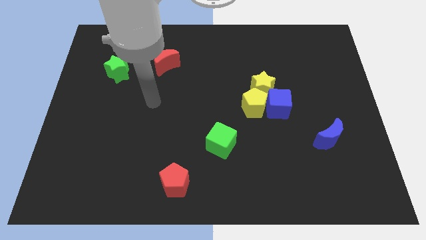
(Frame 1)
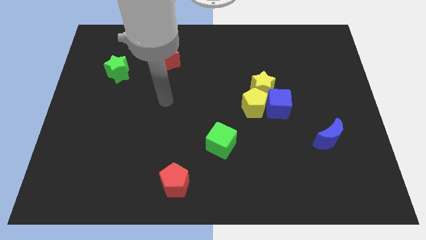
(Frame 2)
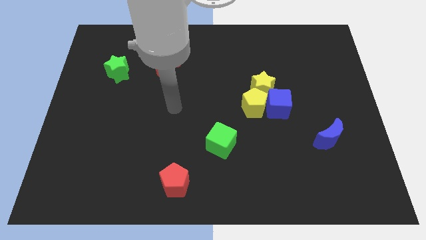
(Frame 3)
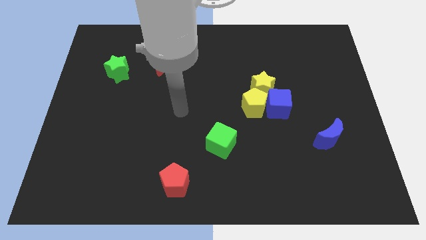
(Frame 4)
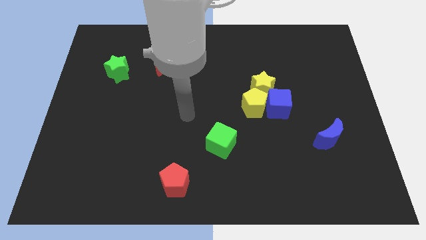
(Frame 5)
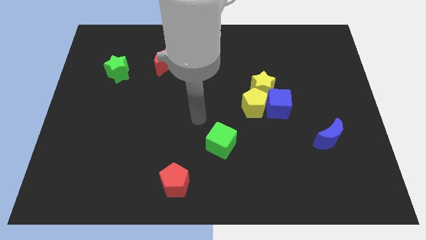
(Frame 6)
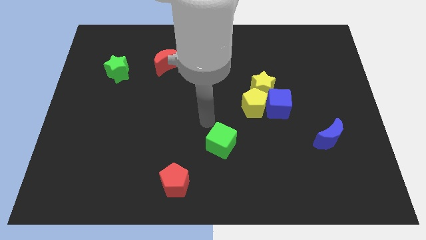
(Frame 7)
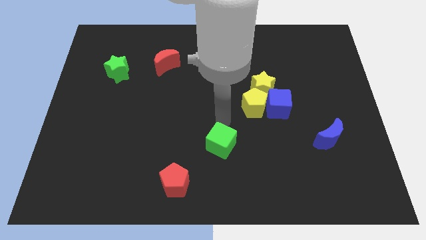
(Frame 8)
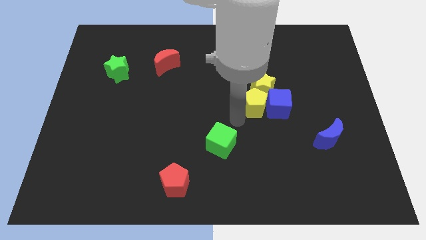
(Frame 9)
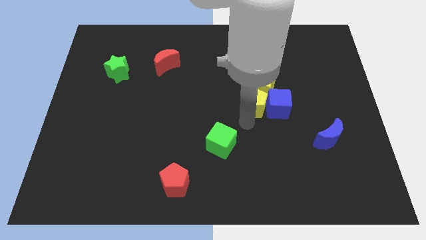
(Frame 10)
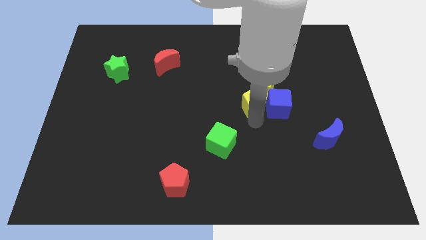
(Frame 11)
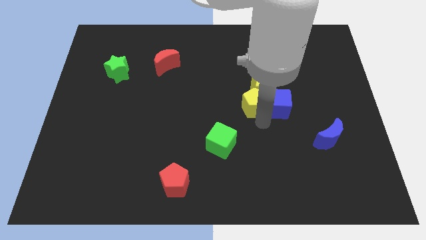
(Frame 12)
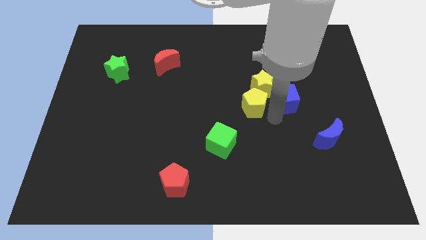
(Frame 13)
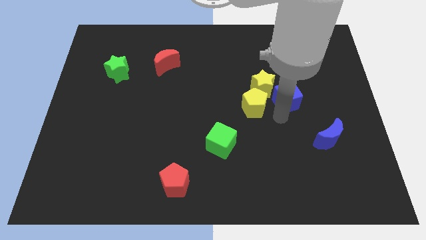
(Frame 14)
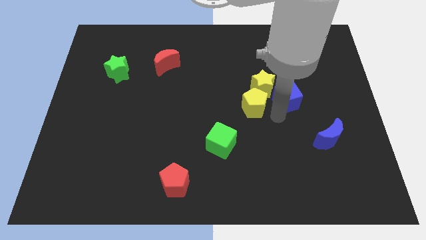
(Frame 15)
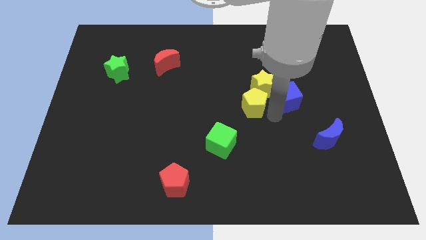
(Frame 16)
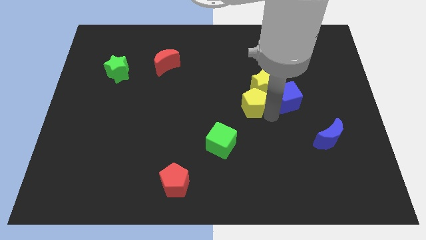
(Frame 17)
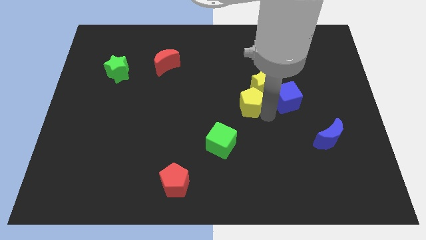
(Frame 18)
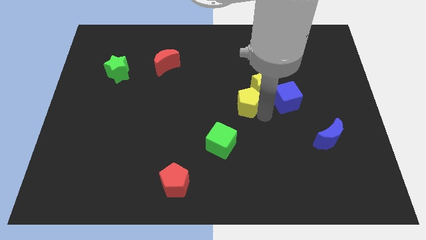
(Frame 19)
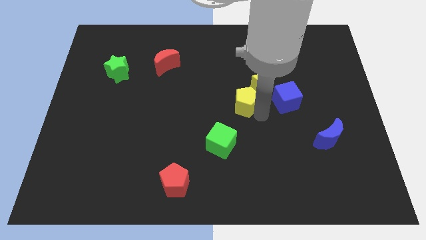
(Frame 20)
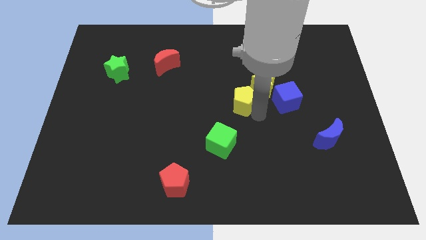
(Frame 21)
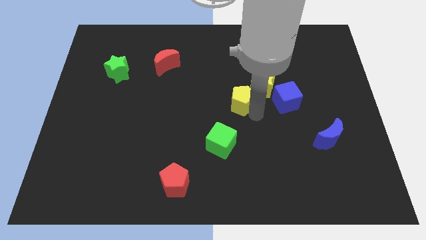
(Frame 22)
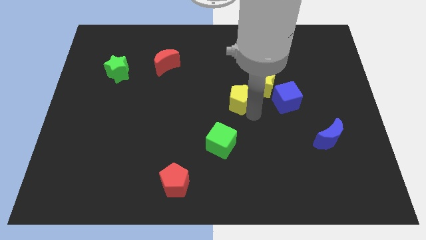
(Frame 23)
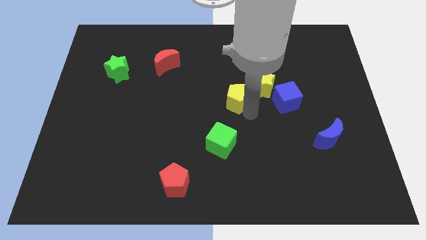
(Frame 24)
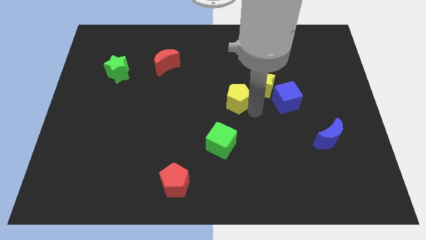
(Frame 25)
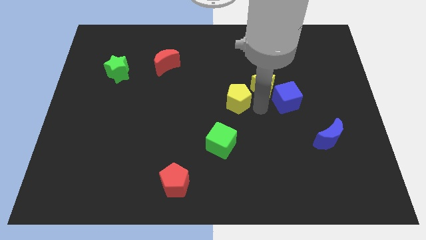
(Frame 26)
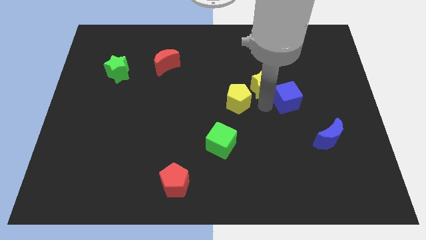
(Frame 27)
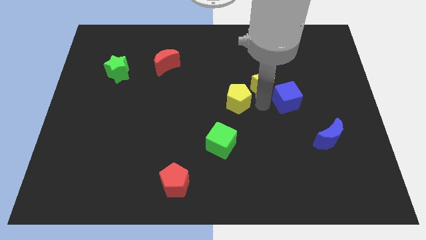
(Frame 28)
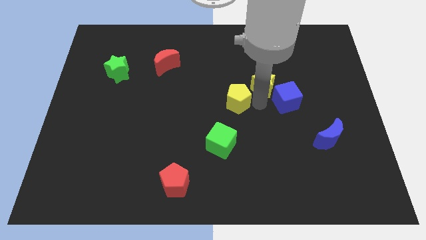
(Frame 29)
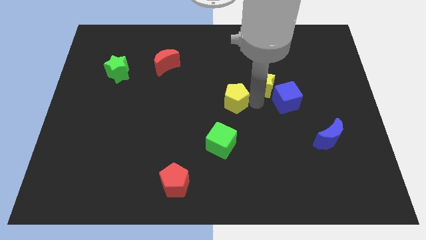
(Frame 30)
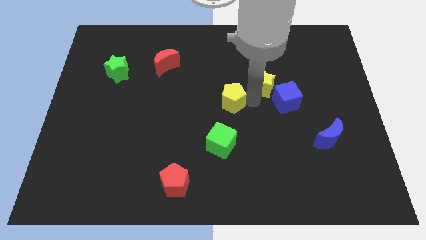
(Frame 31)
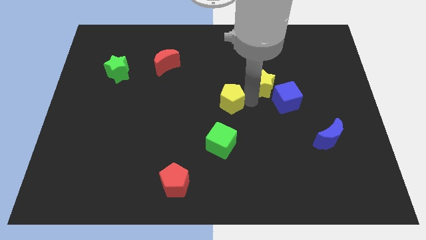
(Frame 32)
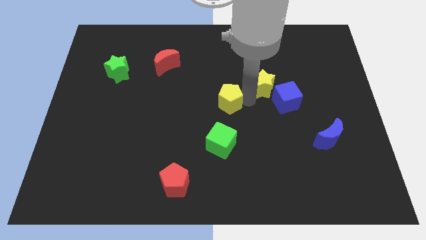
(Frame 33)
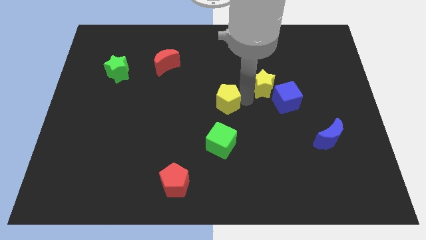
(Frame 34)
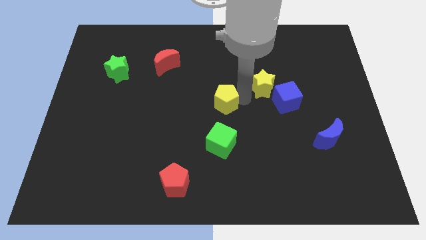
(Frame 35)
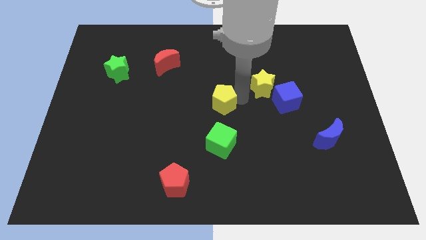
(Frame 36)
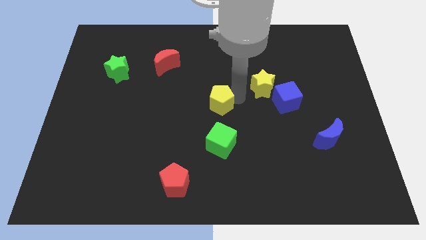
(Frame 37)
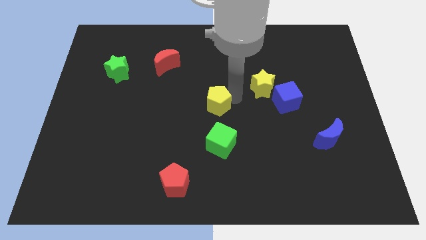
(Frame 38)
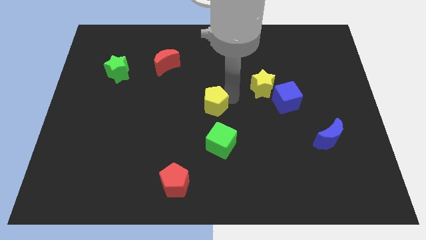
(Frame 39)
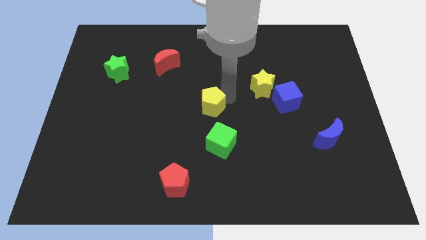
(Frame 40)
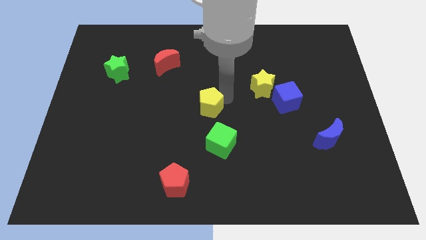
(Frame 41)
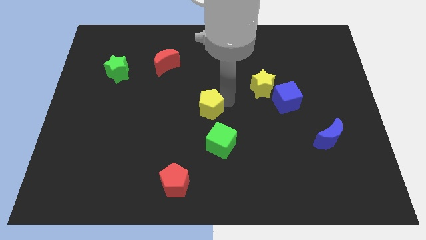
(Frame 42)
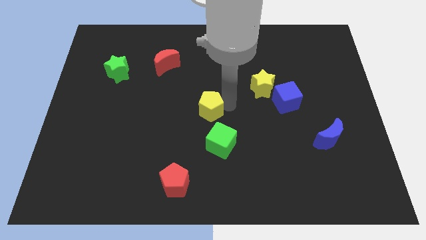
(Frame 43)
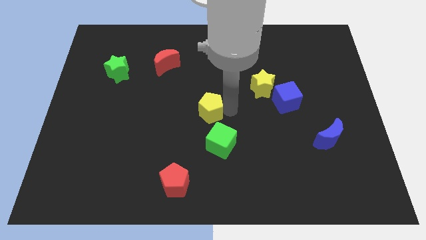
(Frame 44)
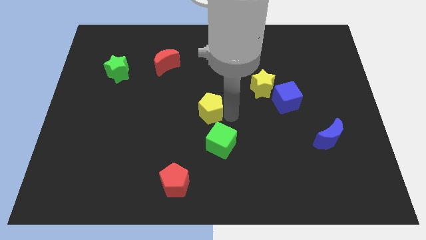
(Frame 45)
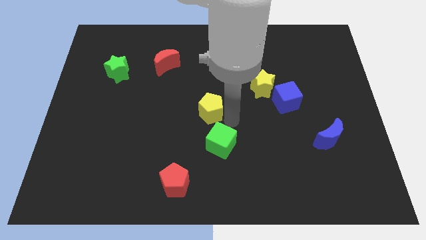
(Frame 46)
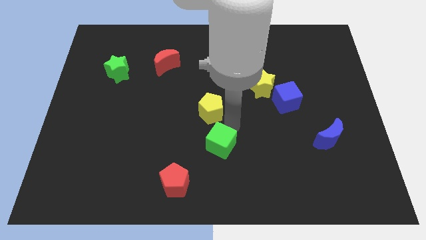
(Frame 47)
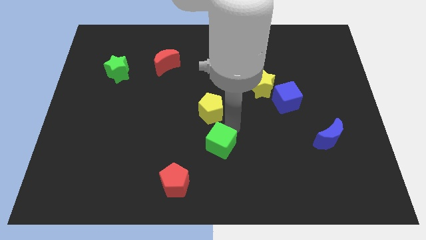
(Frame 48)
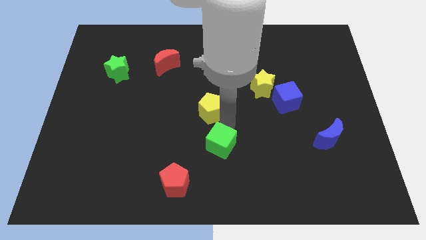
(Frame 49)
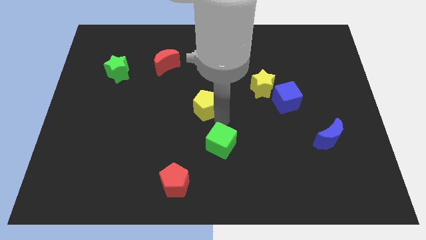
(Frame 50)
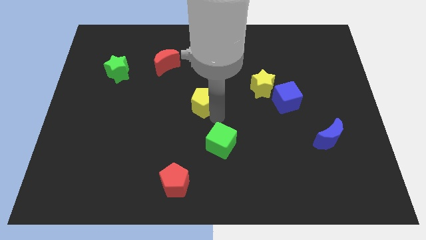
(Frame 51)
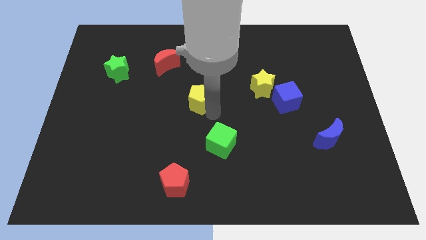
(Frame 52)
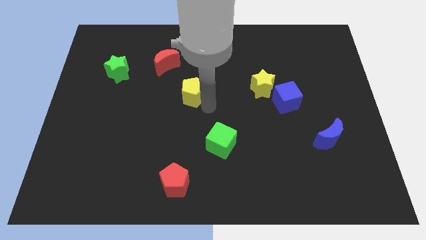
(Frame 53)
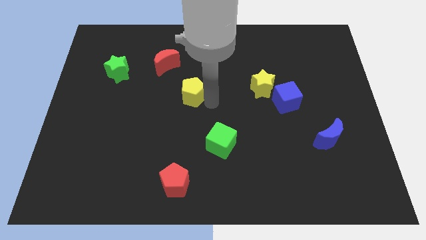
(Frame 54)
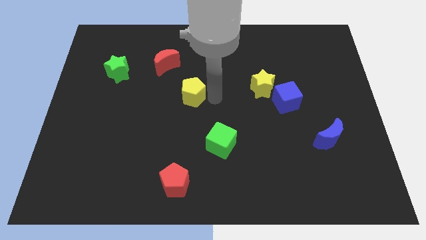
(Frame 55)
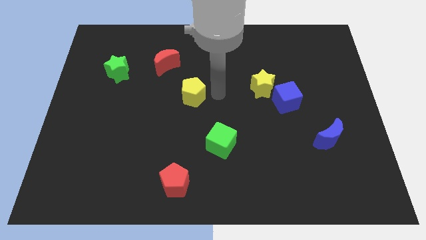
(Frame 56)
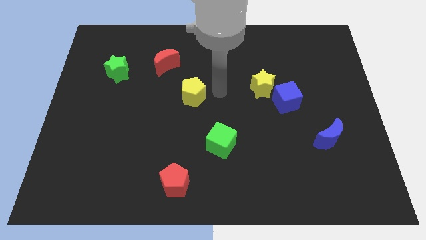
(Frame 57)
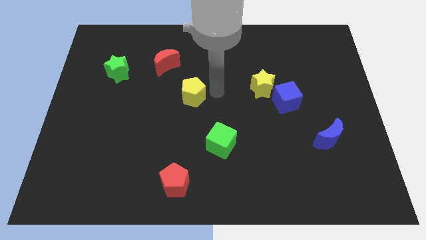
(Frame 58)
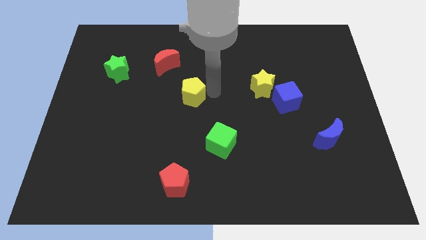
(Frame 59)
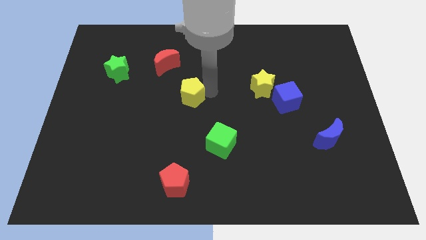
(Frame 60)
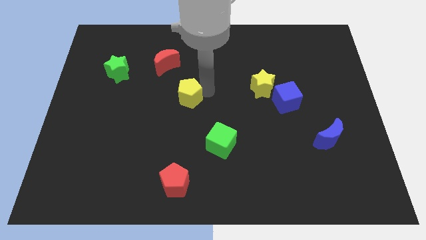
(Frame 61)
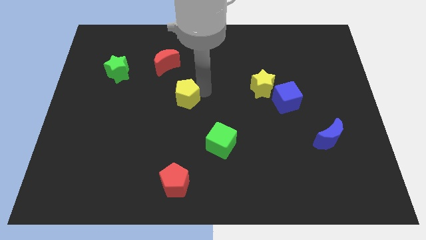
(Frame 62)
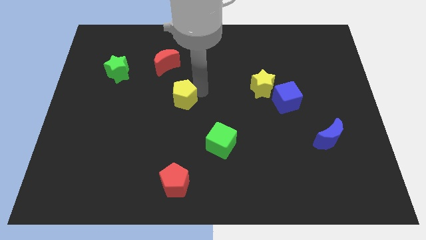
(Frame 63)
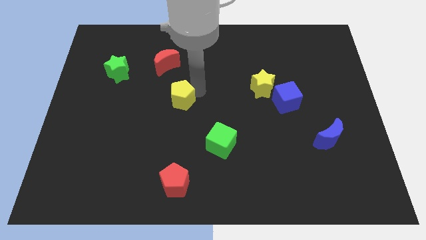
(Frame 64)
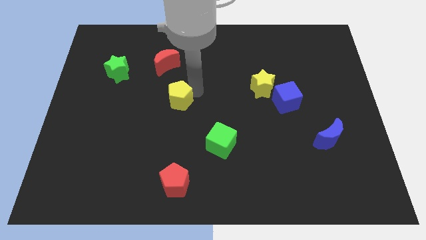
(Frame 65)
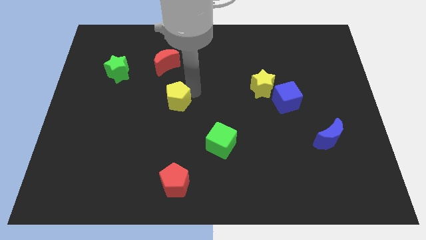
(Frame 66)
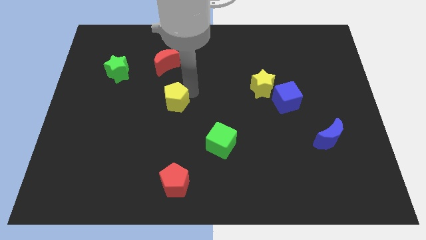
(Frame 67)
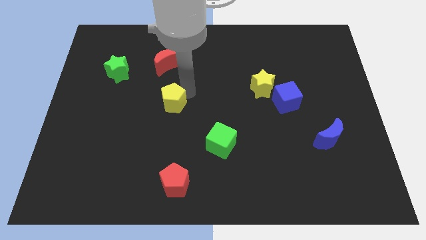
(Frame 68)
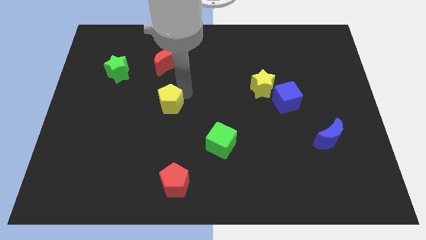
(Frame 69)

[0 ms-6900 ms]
slide the yellow pentagon left

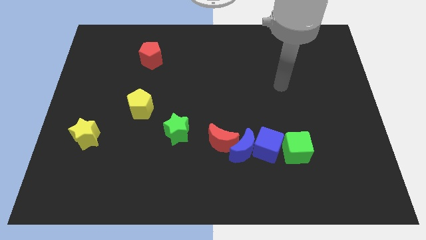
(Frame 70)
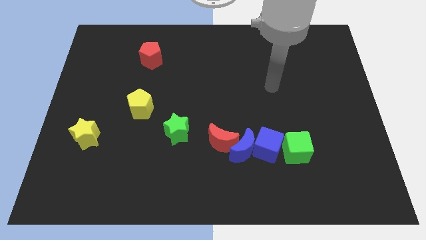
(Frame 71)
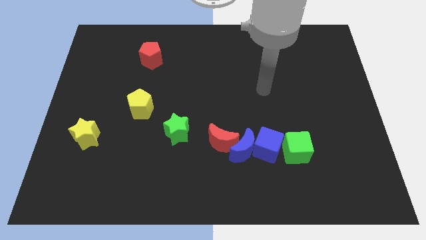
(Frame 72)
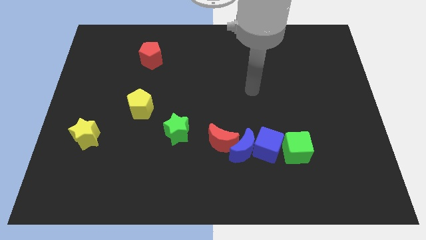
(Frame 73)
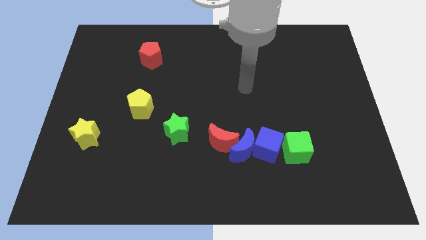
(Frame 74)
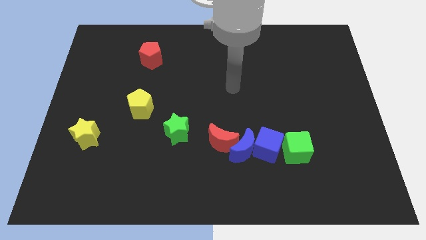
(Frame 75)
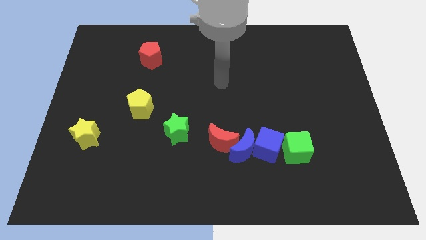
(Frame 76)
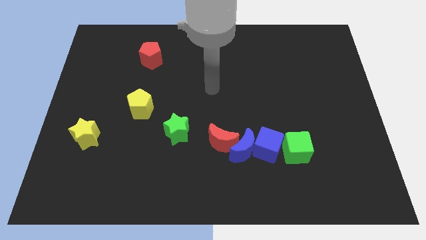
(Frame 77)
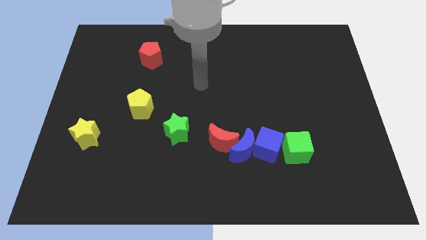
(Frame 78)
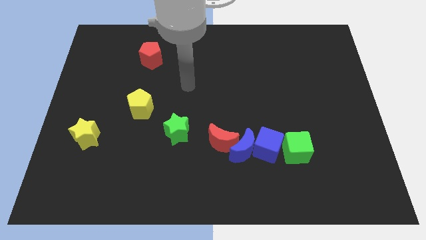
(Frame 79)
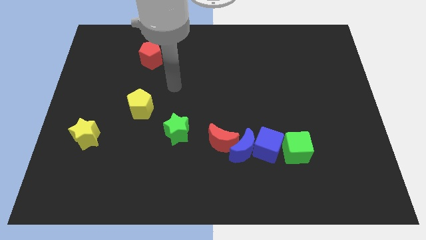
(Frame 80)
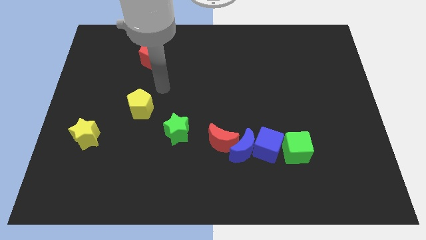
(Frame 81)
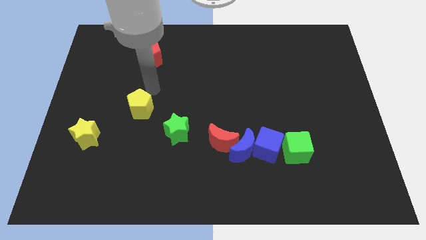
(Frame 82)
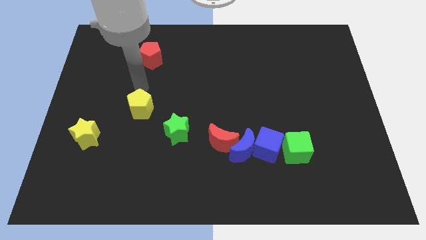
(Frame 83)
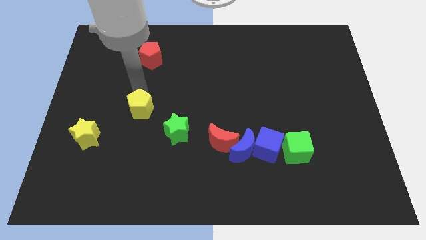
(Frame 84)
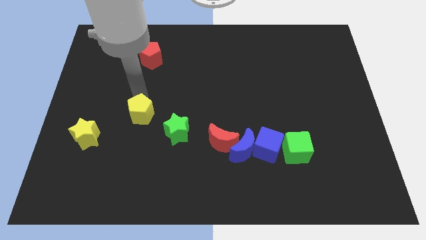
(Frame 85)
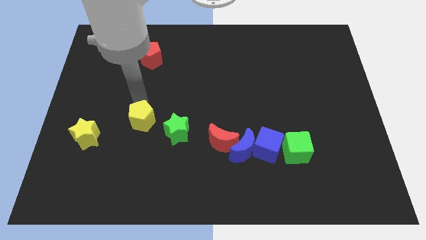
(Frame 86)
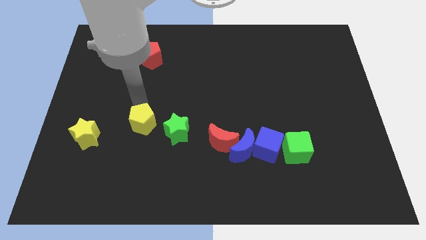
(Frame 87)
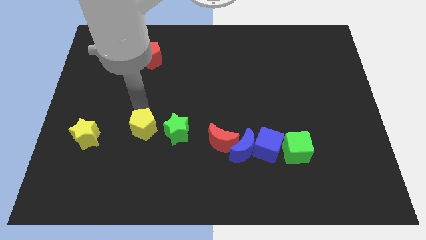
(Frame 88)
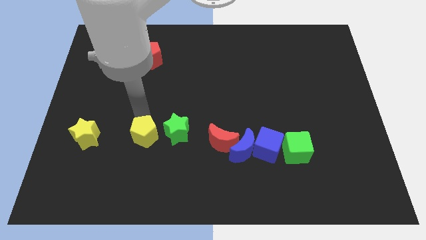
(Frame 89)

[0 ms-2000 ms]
move the yellow pentagon downwards slightly
